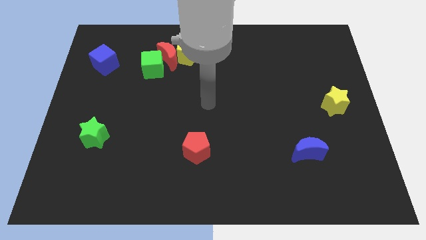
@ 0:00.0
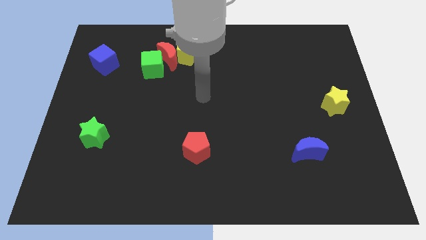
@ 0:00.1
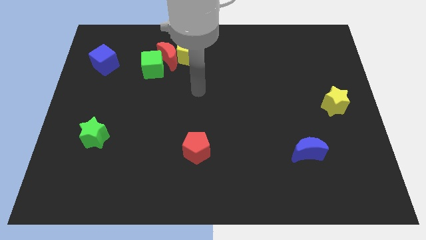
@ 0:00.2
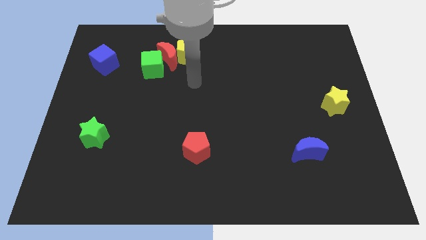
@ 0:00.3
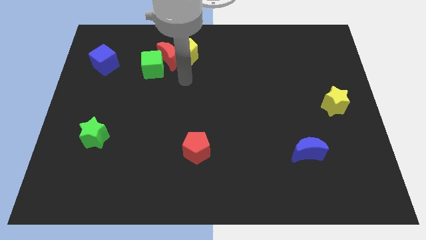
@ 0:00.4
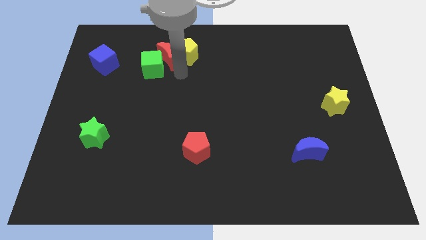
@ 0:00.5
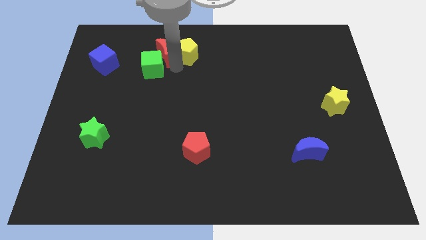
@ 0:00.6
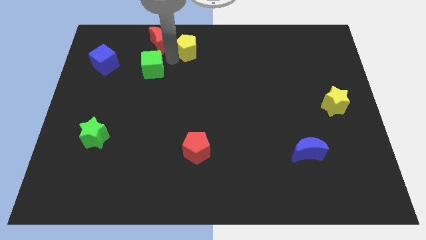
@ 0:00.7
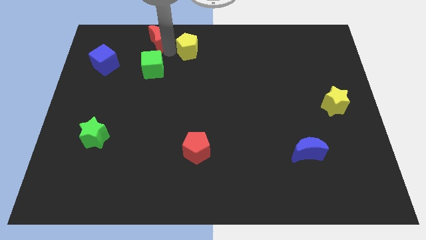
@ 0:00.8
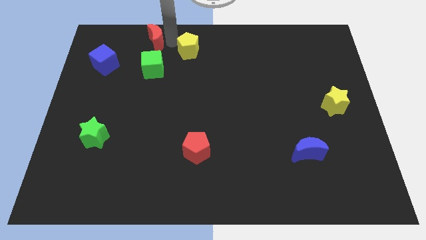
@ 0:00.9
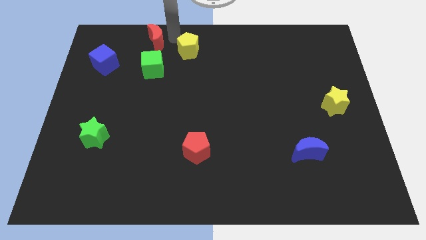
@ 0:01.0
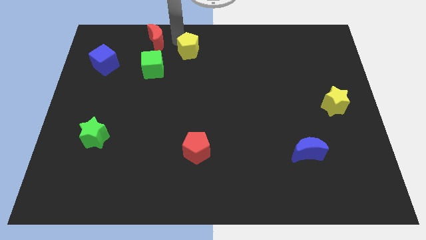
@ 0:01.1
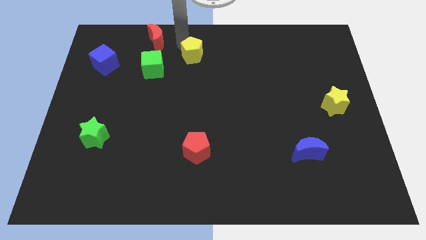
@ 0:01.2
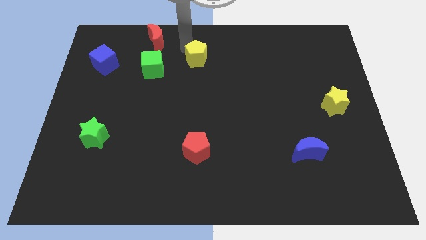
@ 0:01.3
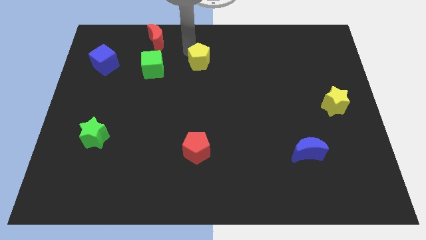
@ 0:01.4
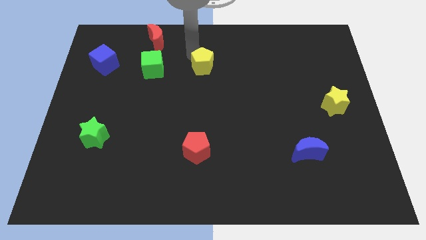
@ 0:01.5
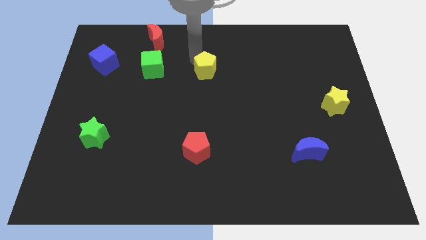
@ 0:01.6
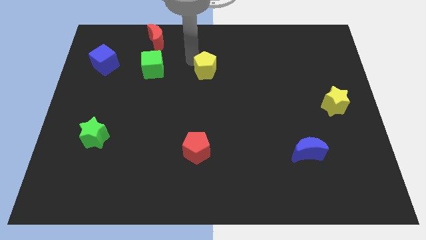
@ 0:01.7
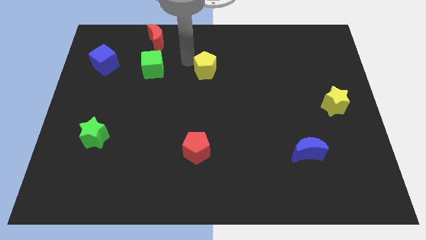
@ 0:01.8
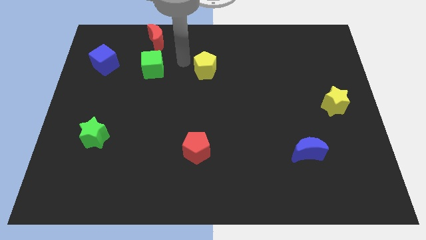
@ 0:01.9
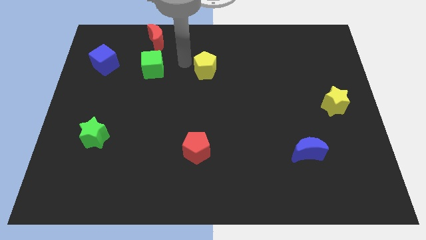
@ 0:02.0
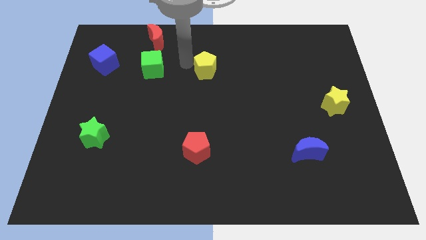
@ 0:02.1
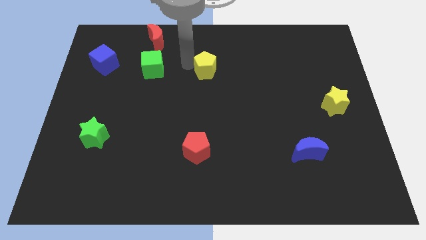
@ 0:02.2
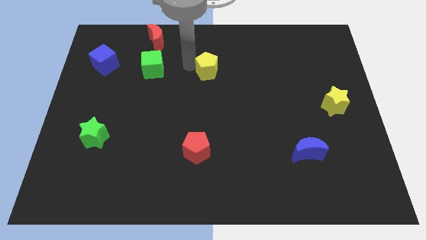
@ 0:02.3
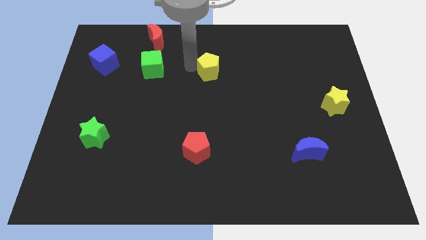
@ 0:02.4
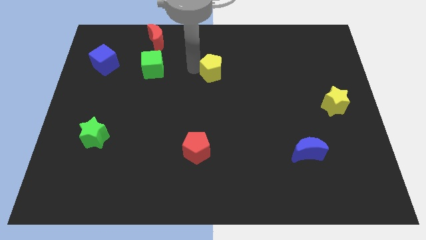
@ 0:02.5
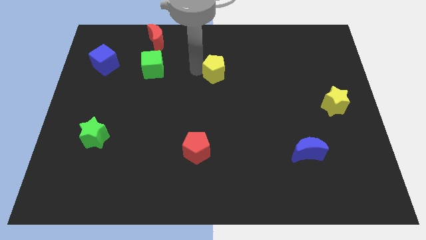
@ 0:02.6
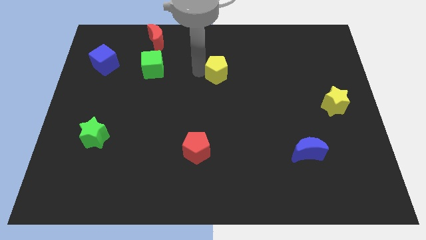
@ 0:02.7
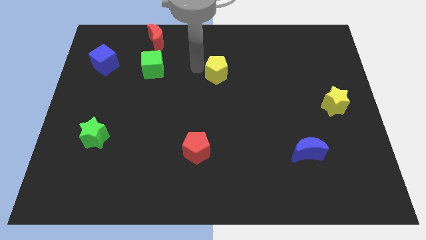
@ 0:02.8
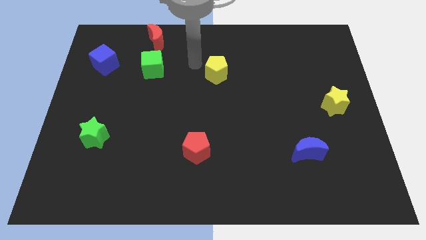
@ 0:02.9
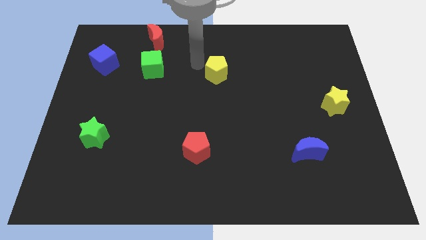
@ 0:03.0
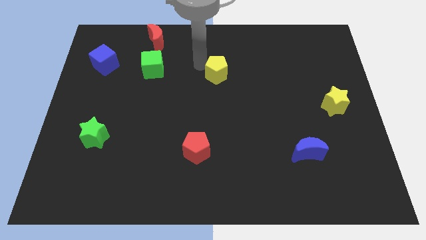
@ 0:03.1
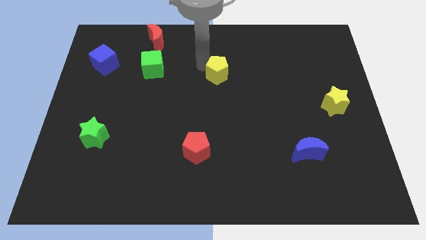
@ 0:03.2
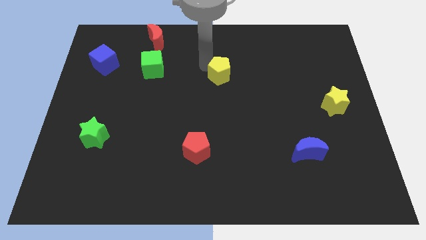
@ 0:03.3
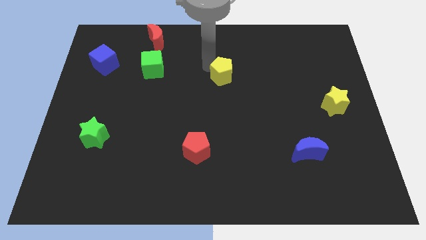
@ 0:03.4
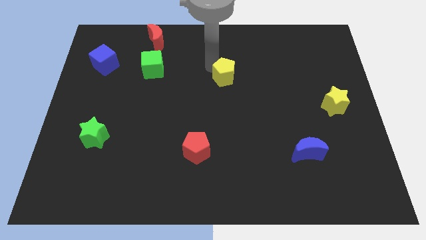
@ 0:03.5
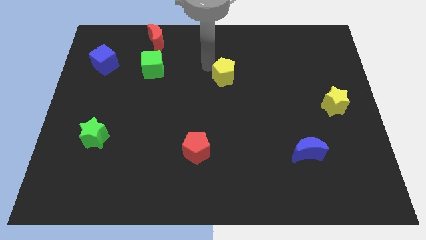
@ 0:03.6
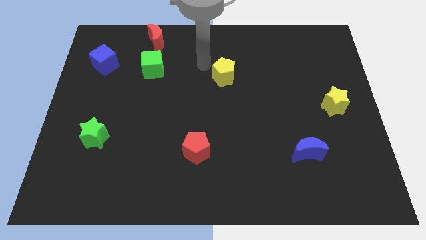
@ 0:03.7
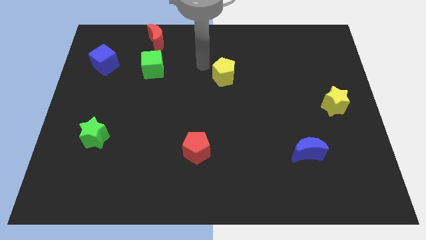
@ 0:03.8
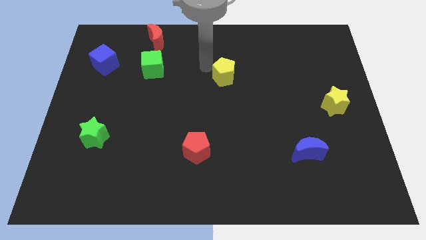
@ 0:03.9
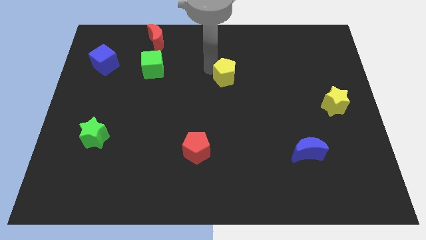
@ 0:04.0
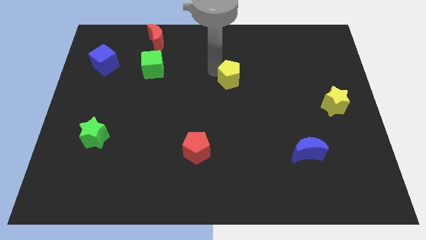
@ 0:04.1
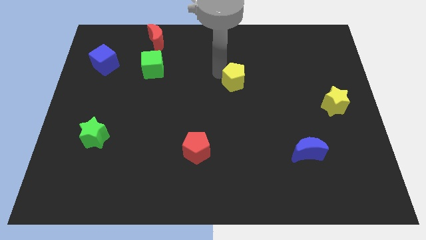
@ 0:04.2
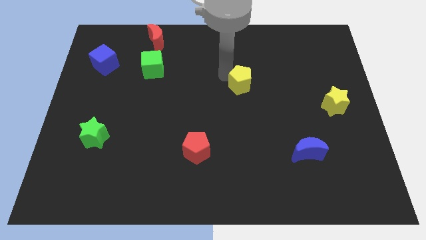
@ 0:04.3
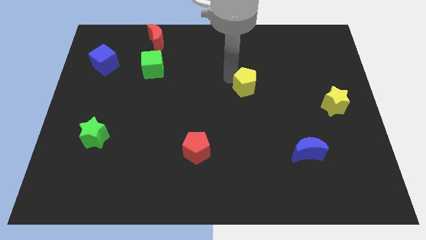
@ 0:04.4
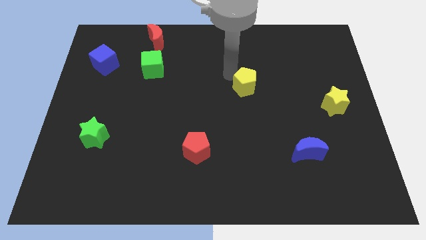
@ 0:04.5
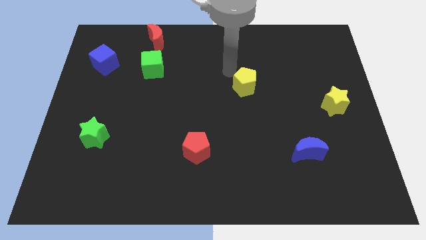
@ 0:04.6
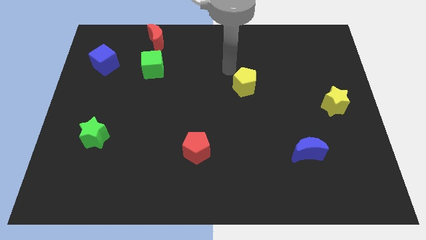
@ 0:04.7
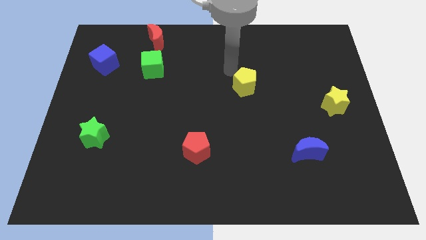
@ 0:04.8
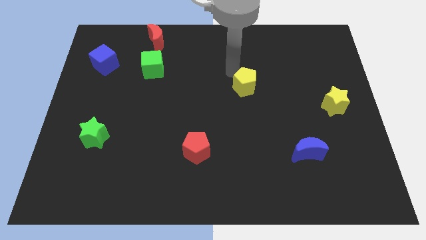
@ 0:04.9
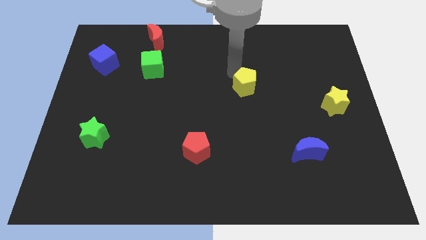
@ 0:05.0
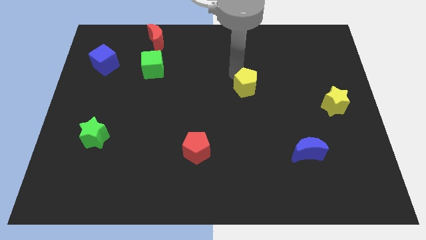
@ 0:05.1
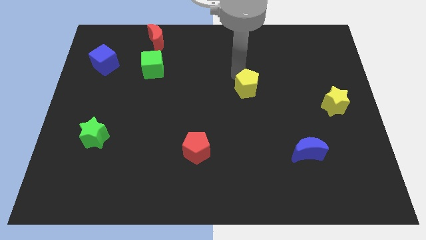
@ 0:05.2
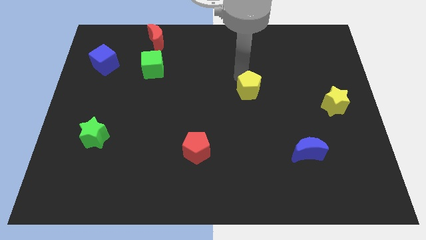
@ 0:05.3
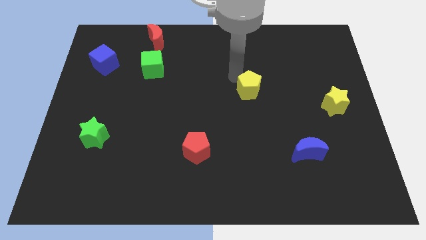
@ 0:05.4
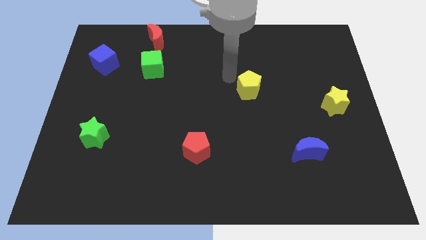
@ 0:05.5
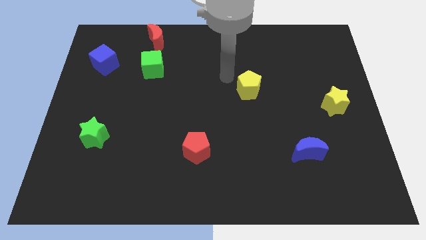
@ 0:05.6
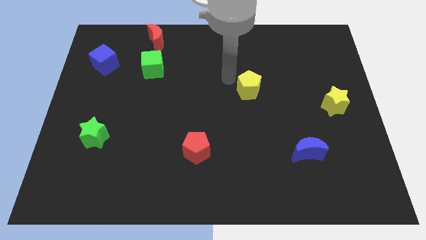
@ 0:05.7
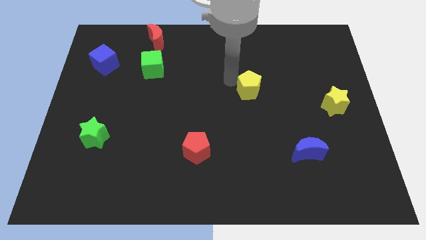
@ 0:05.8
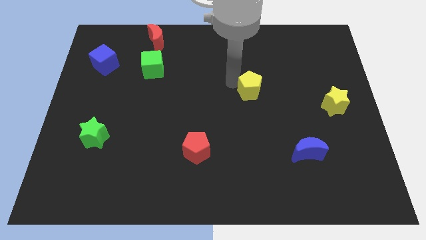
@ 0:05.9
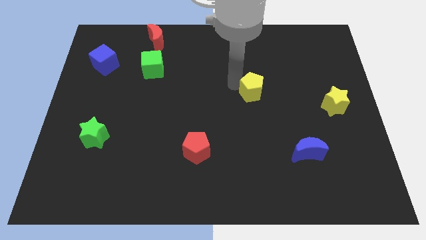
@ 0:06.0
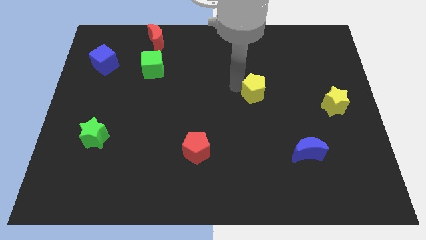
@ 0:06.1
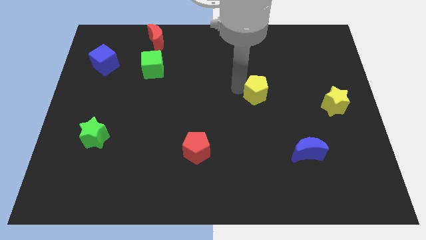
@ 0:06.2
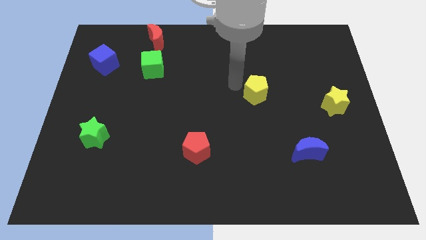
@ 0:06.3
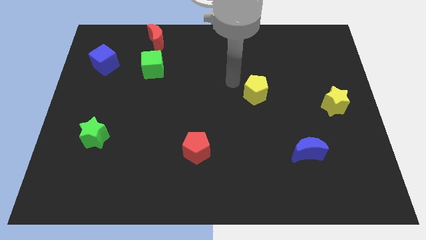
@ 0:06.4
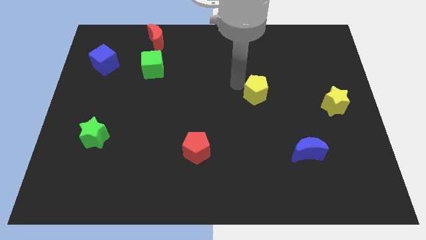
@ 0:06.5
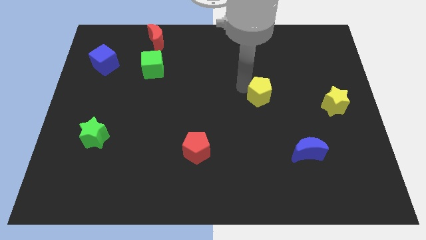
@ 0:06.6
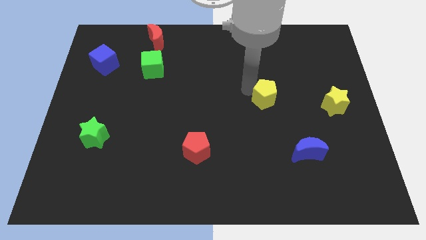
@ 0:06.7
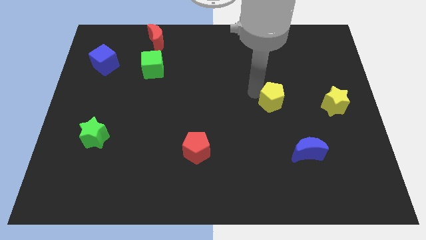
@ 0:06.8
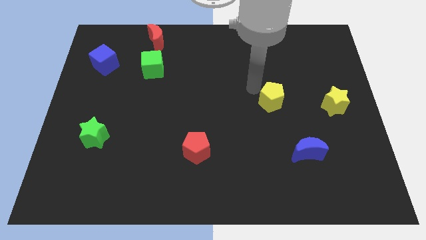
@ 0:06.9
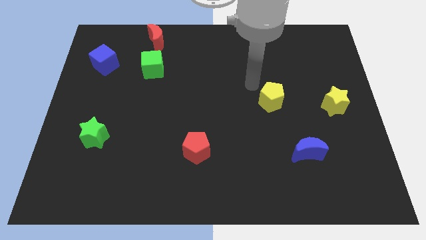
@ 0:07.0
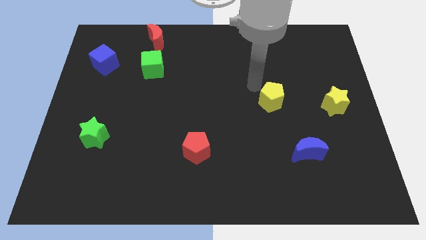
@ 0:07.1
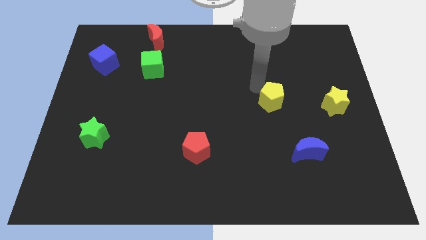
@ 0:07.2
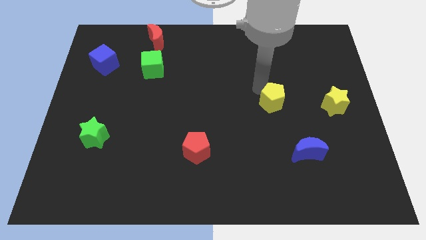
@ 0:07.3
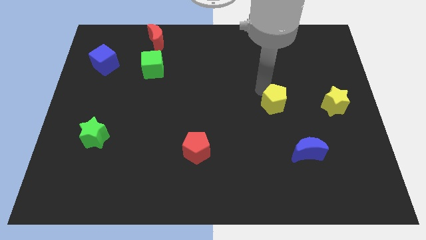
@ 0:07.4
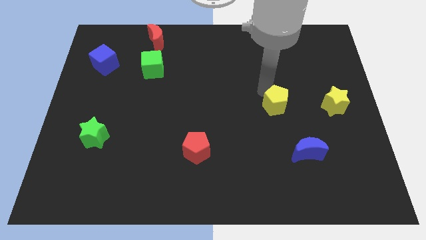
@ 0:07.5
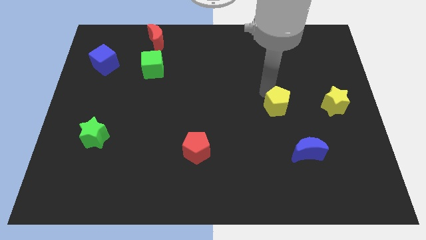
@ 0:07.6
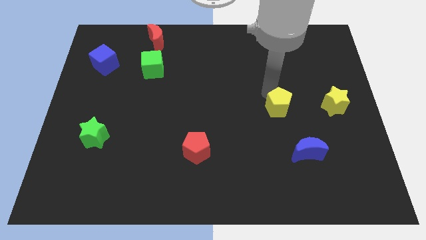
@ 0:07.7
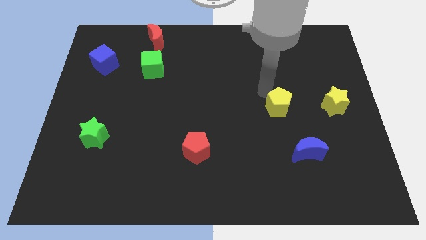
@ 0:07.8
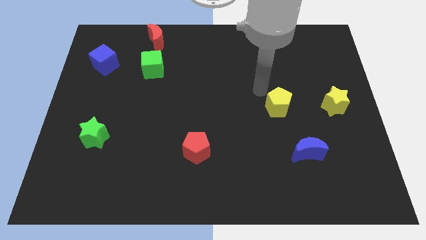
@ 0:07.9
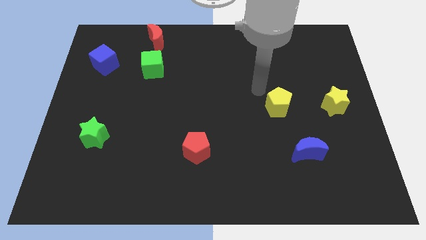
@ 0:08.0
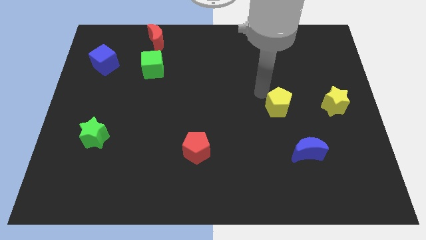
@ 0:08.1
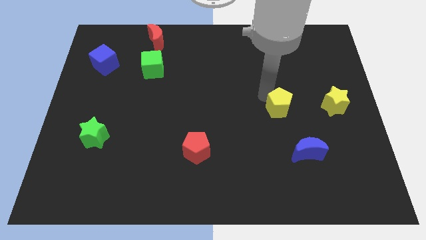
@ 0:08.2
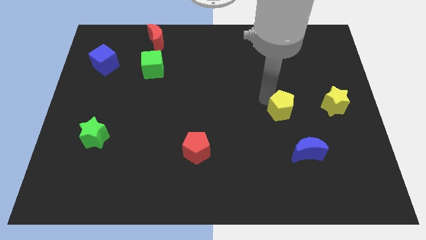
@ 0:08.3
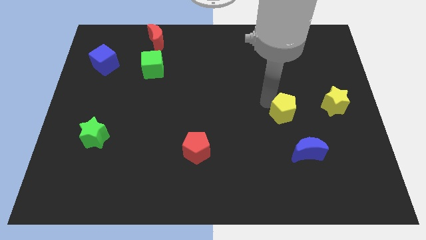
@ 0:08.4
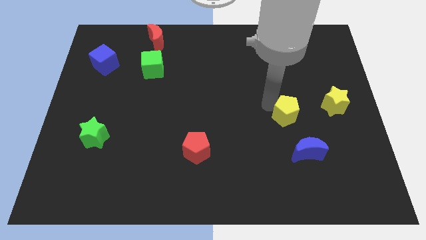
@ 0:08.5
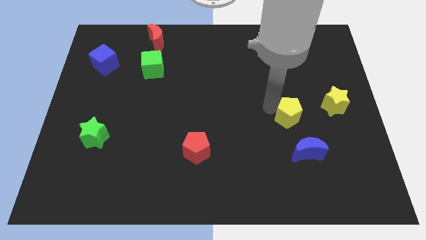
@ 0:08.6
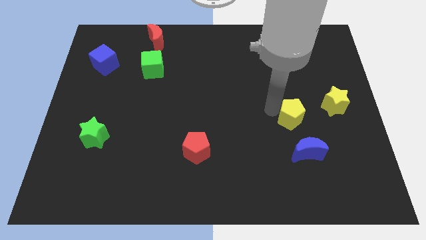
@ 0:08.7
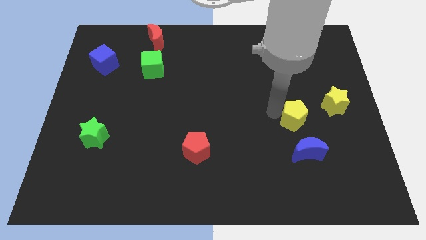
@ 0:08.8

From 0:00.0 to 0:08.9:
put the yellow pentagon to the bottom left of the yellow star
